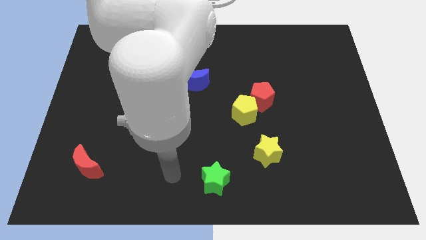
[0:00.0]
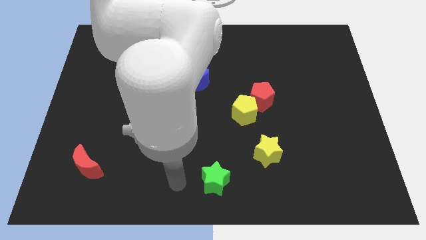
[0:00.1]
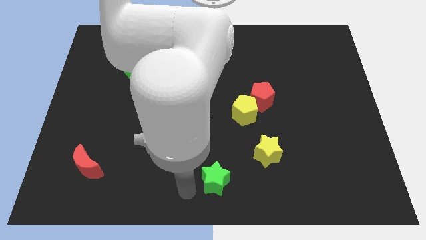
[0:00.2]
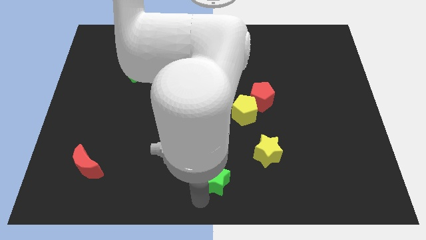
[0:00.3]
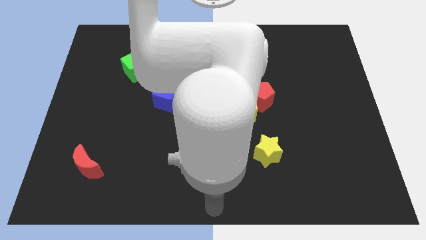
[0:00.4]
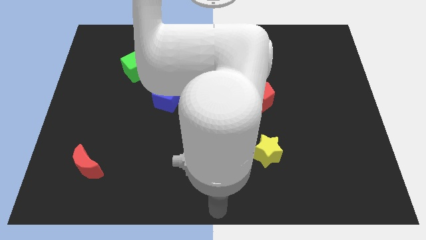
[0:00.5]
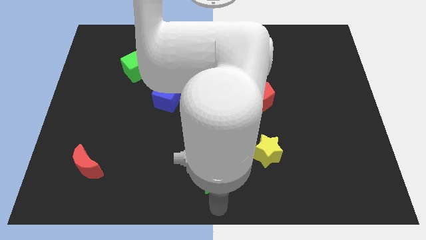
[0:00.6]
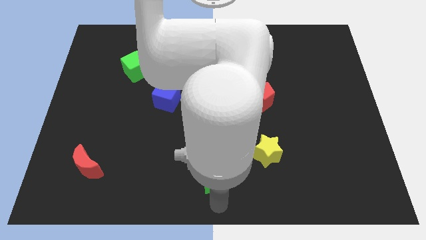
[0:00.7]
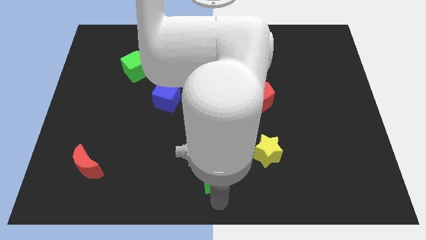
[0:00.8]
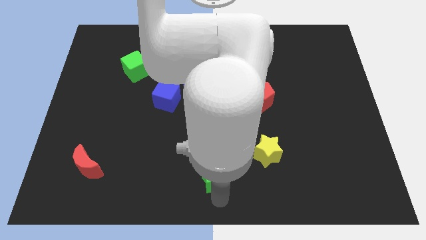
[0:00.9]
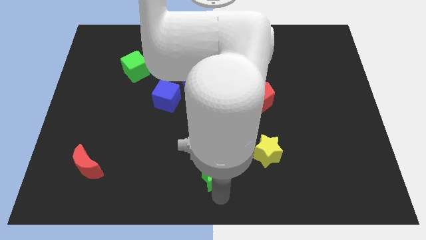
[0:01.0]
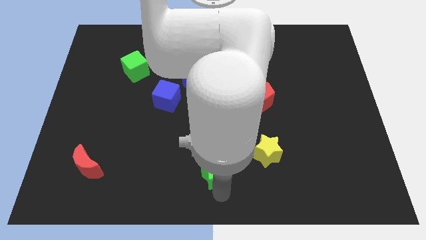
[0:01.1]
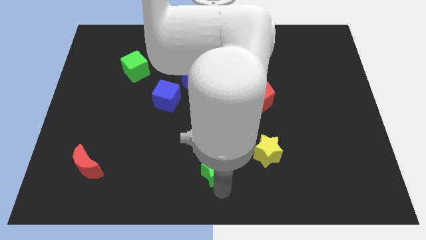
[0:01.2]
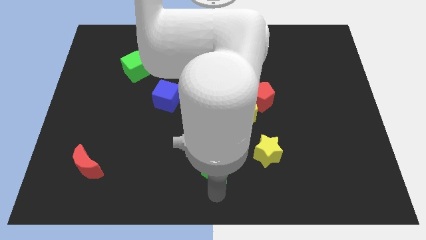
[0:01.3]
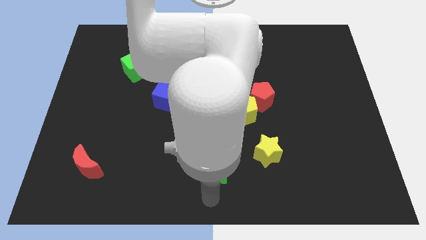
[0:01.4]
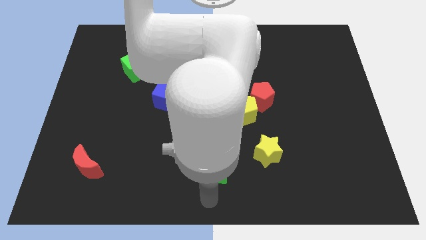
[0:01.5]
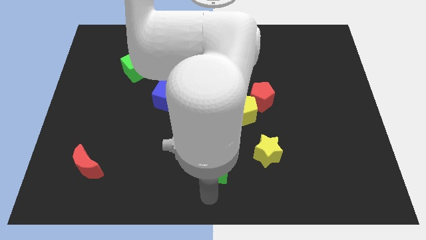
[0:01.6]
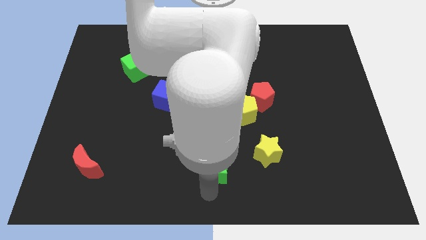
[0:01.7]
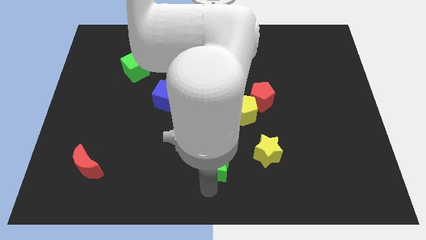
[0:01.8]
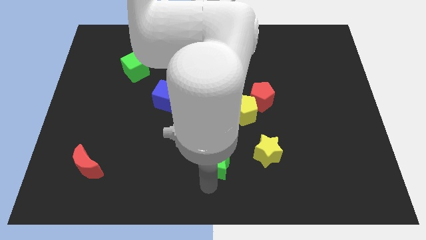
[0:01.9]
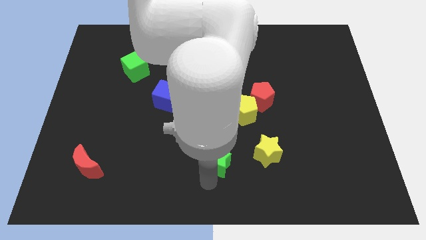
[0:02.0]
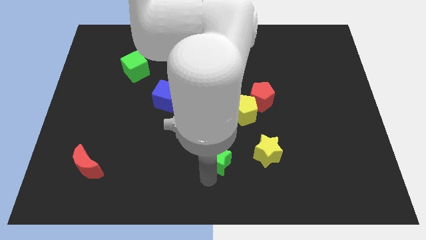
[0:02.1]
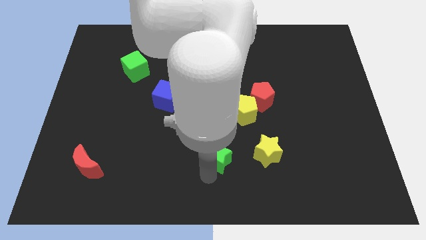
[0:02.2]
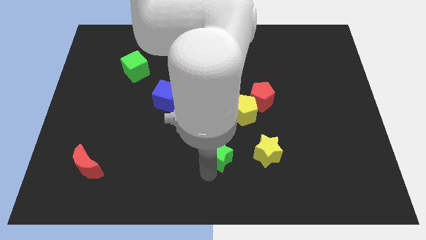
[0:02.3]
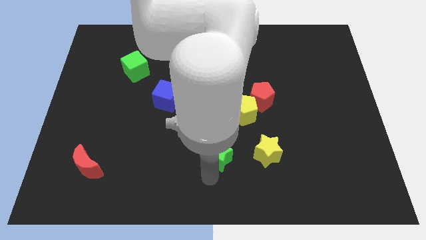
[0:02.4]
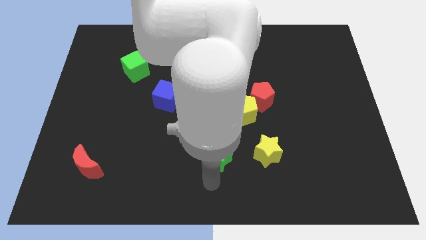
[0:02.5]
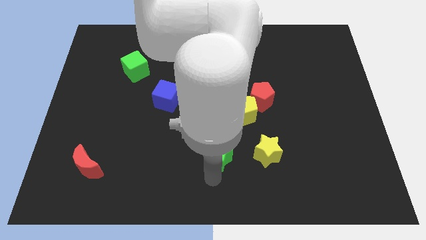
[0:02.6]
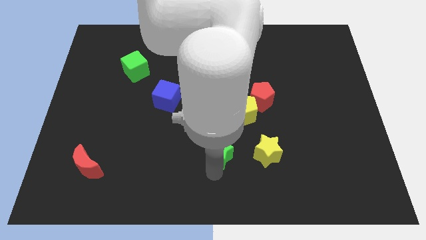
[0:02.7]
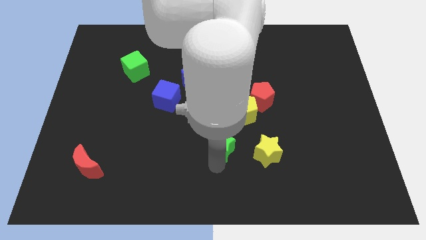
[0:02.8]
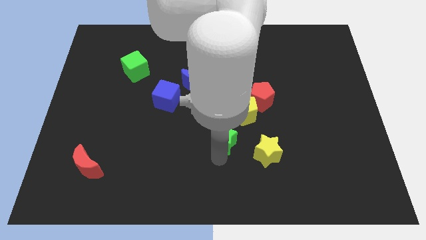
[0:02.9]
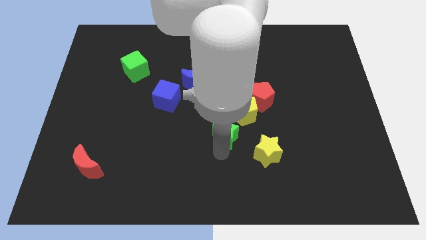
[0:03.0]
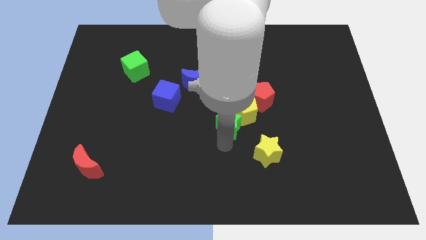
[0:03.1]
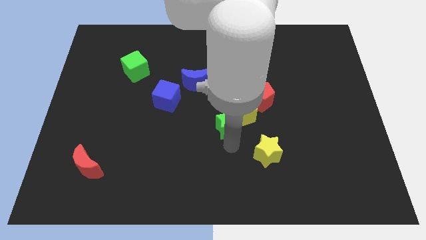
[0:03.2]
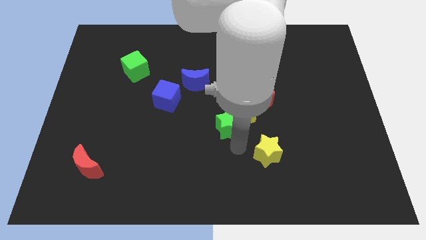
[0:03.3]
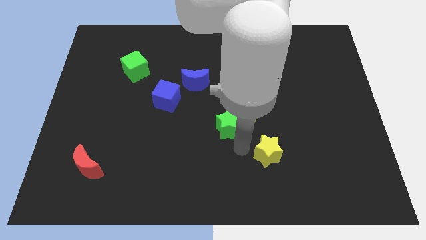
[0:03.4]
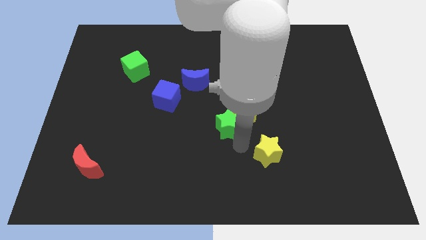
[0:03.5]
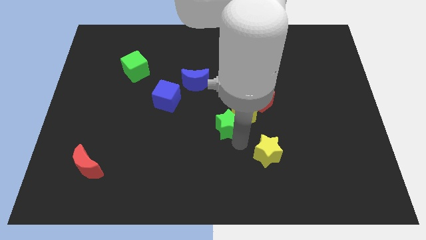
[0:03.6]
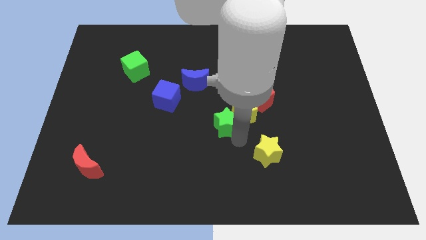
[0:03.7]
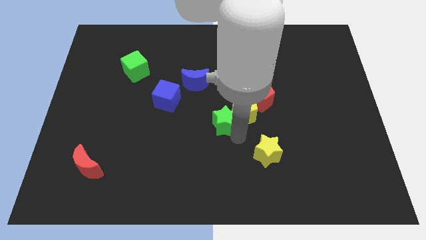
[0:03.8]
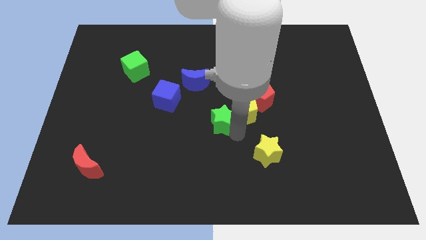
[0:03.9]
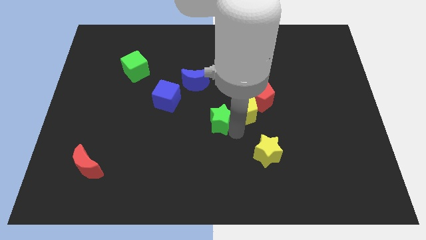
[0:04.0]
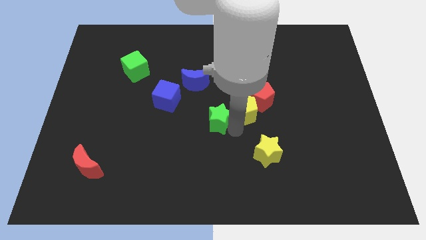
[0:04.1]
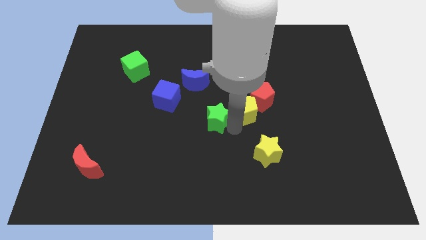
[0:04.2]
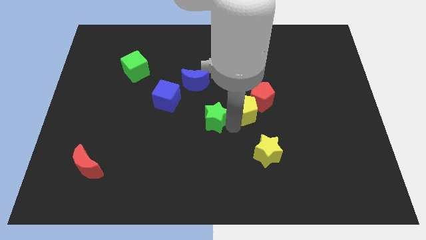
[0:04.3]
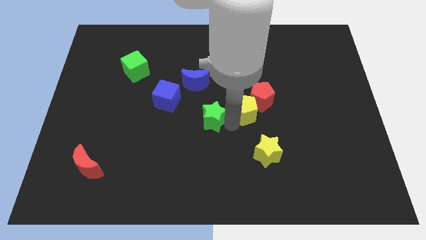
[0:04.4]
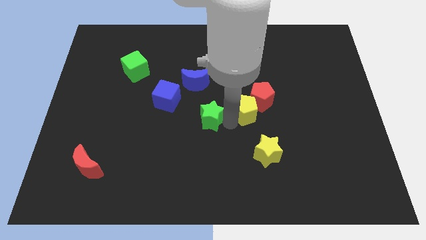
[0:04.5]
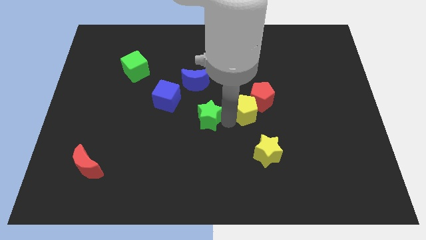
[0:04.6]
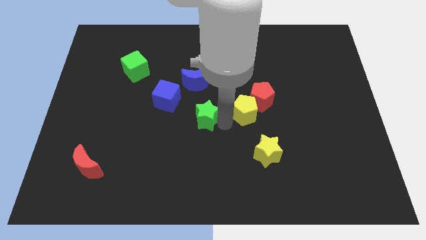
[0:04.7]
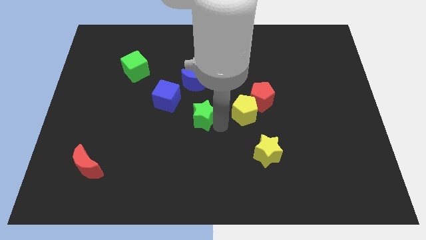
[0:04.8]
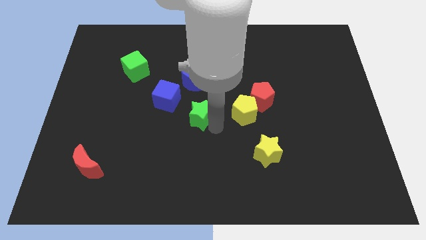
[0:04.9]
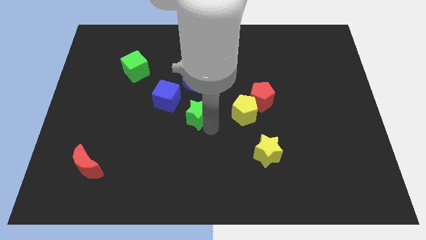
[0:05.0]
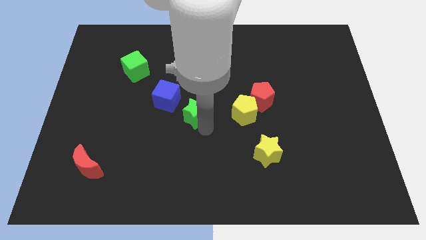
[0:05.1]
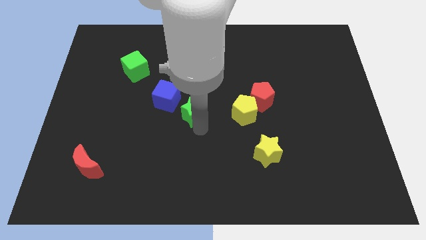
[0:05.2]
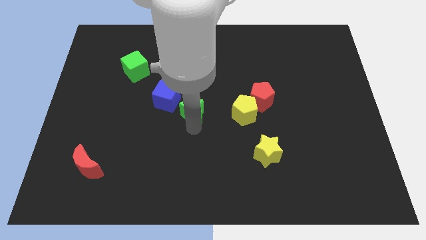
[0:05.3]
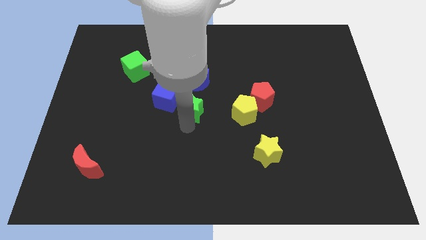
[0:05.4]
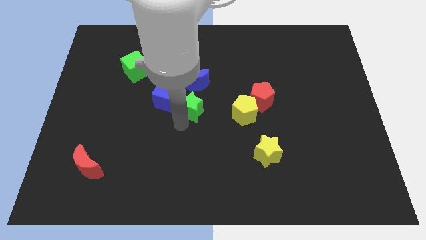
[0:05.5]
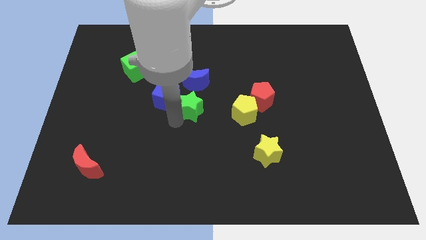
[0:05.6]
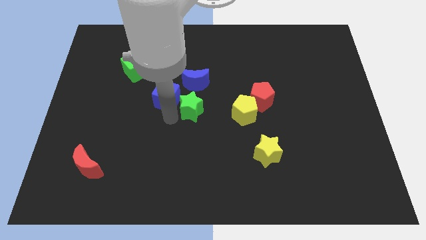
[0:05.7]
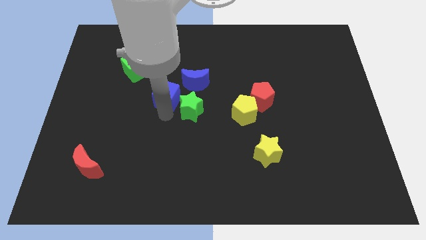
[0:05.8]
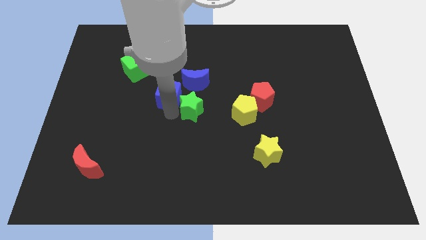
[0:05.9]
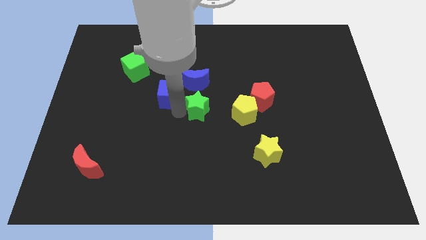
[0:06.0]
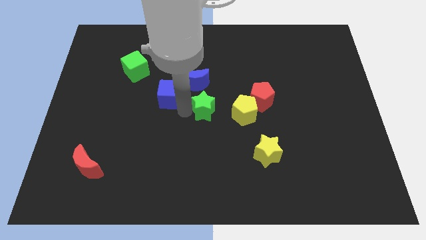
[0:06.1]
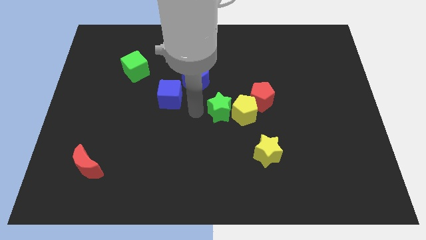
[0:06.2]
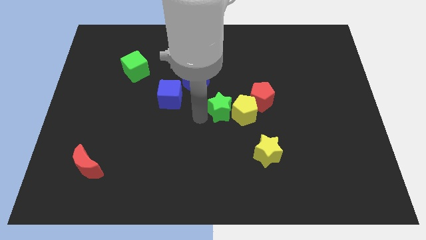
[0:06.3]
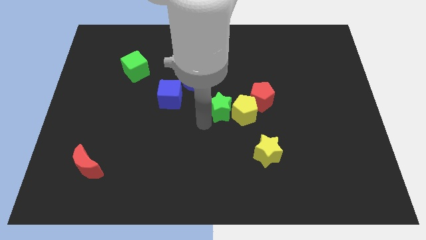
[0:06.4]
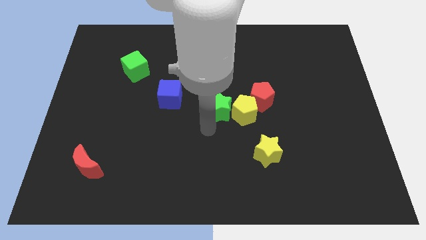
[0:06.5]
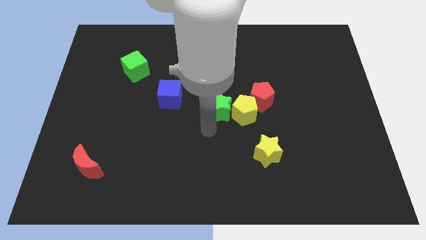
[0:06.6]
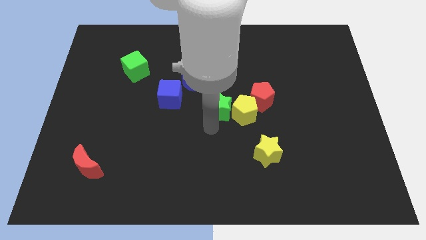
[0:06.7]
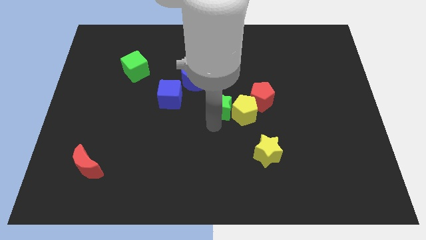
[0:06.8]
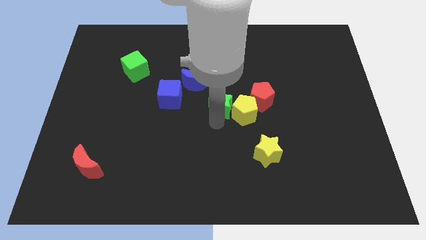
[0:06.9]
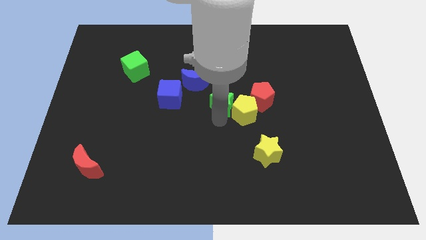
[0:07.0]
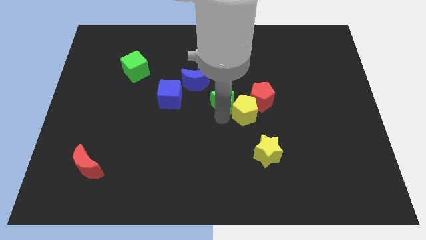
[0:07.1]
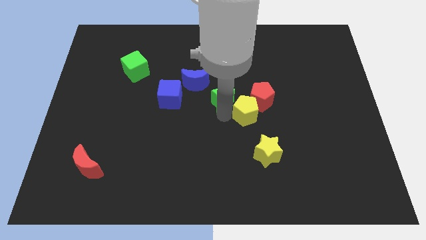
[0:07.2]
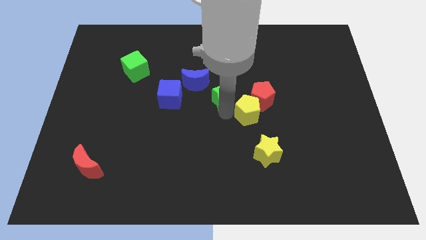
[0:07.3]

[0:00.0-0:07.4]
put the green star to the right side of the blue moon
